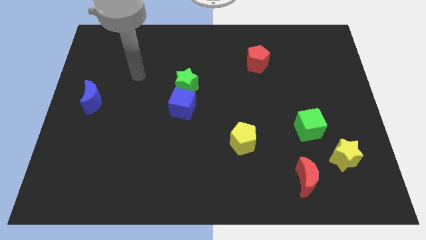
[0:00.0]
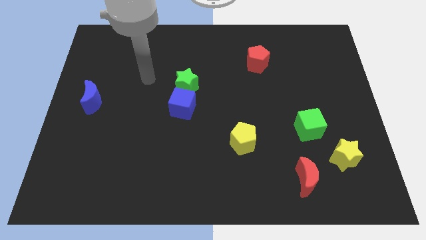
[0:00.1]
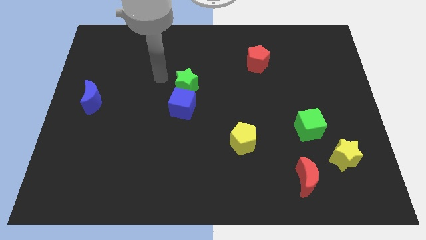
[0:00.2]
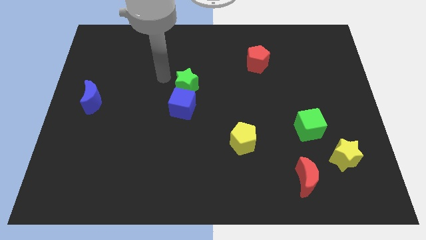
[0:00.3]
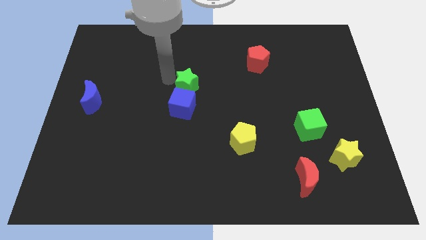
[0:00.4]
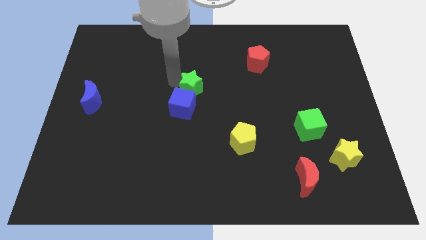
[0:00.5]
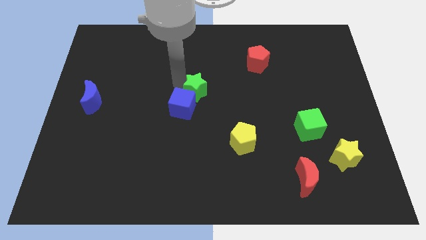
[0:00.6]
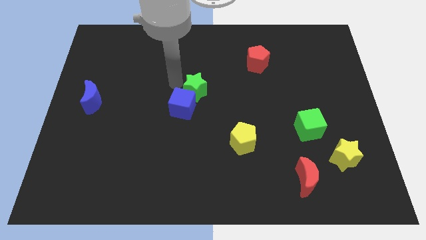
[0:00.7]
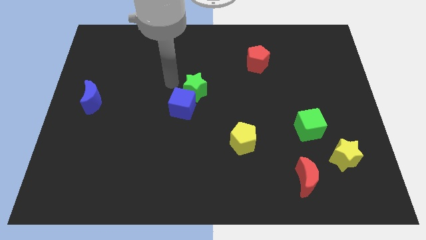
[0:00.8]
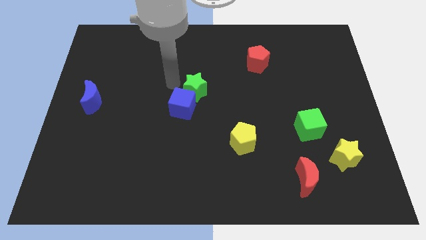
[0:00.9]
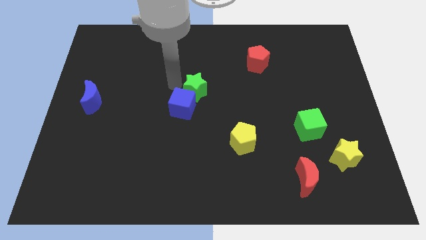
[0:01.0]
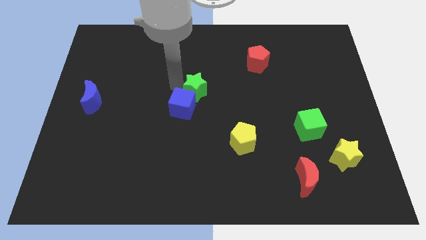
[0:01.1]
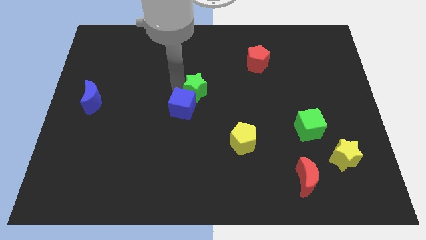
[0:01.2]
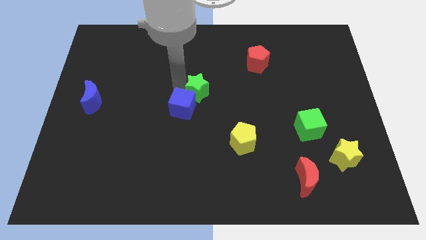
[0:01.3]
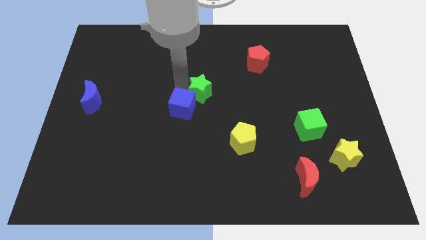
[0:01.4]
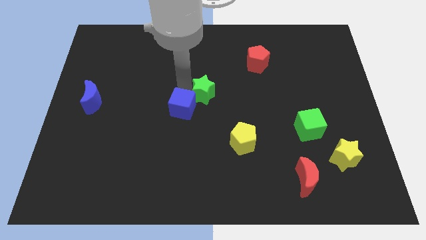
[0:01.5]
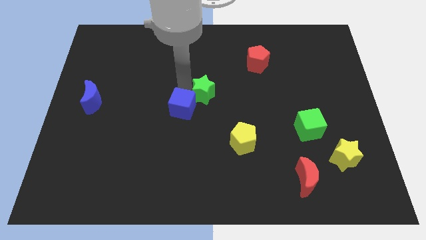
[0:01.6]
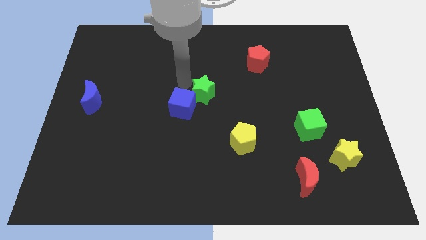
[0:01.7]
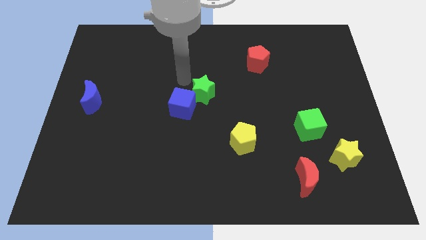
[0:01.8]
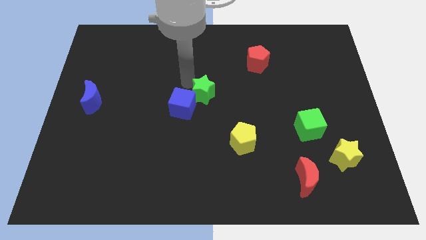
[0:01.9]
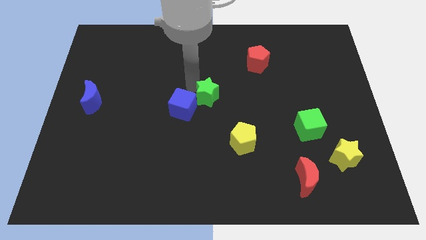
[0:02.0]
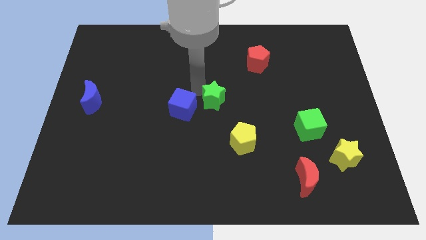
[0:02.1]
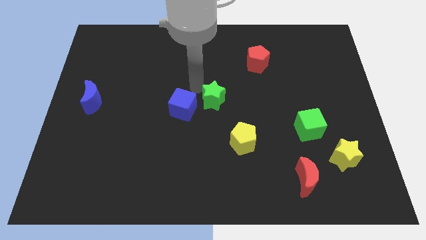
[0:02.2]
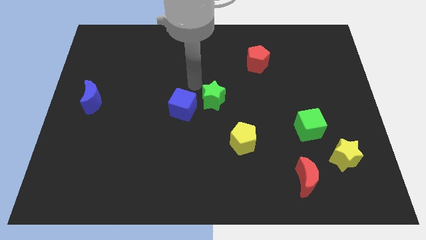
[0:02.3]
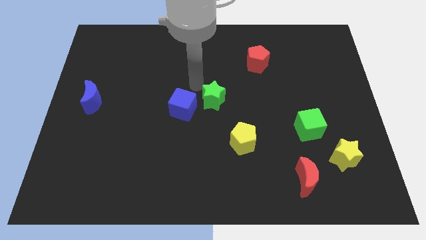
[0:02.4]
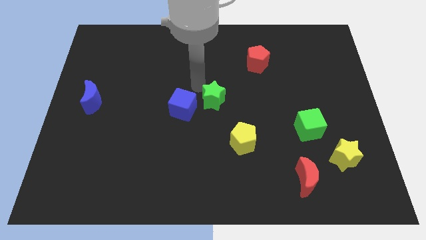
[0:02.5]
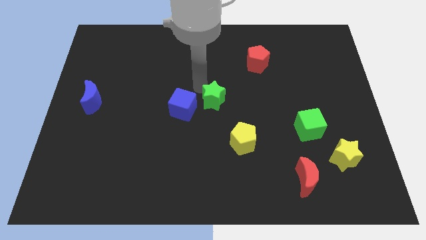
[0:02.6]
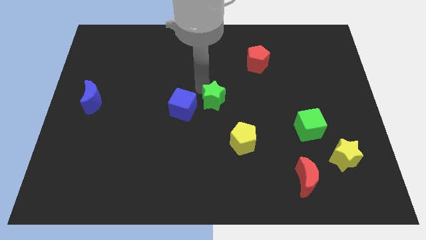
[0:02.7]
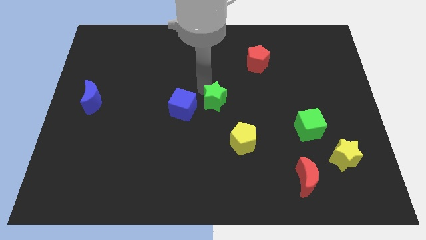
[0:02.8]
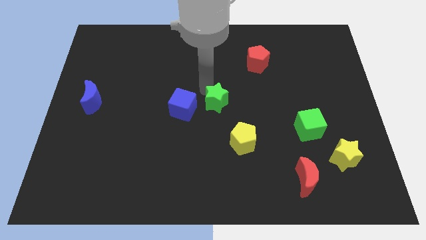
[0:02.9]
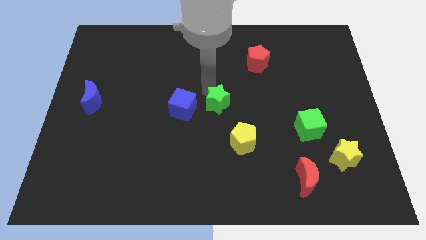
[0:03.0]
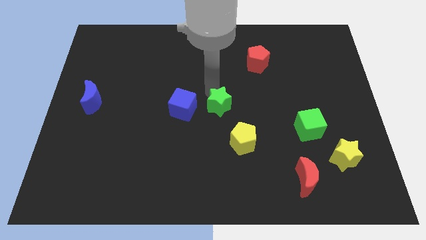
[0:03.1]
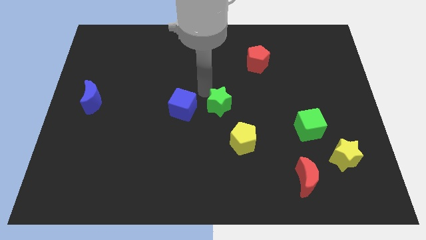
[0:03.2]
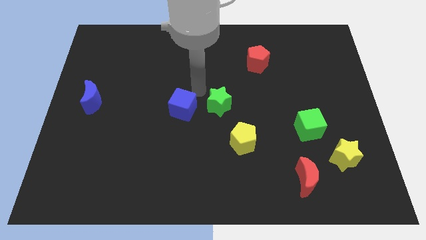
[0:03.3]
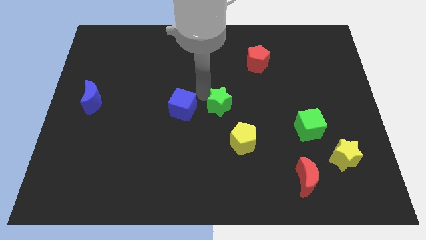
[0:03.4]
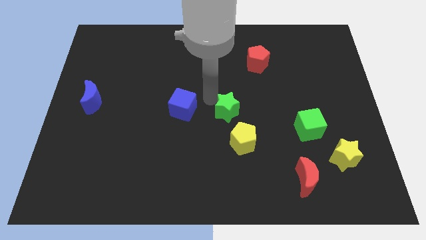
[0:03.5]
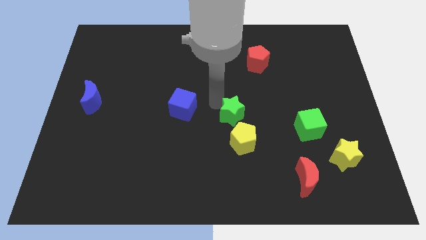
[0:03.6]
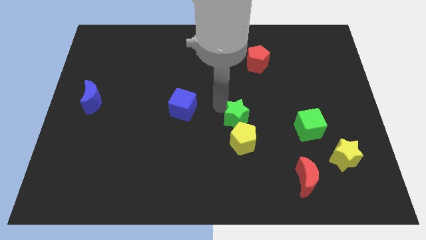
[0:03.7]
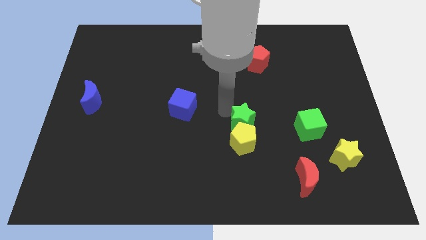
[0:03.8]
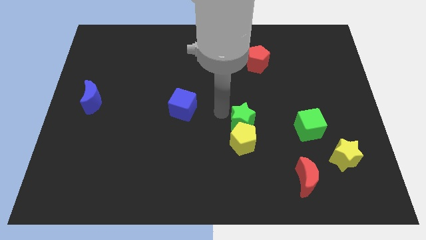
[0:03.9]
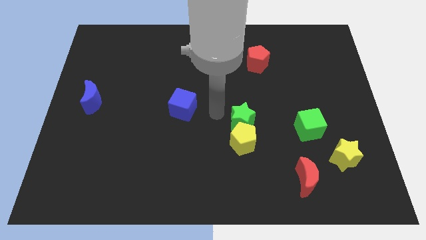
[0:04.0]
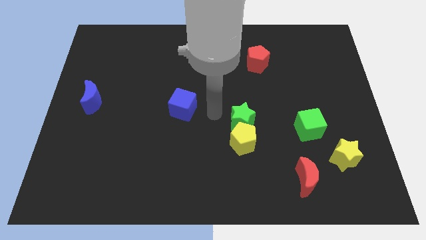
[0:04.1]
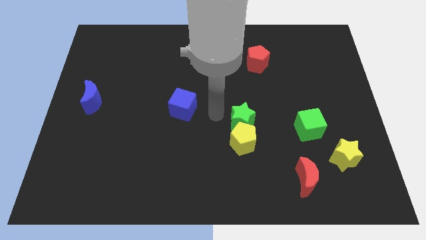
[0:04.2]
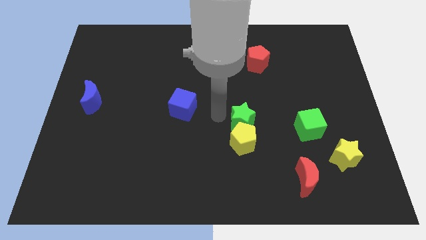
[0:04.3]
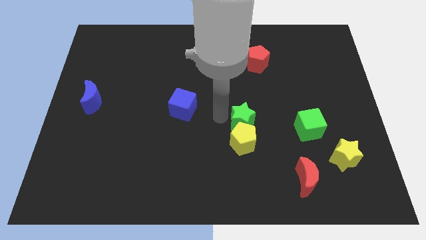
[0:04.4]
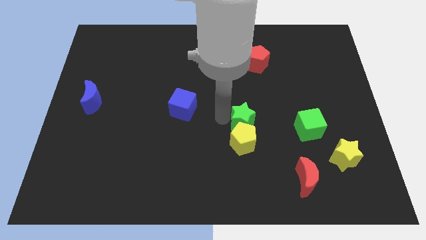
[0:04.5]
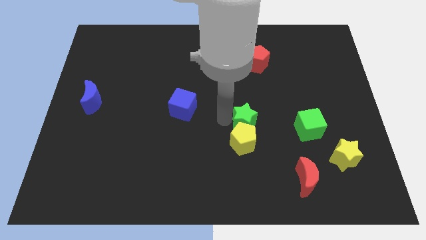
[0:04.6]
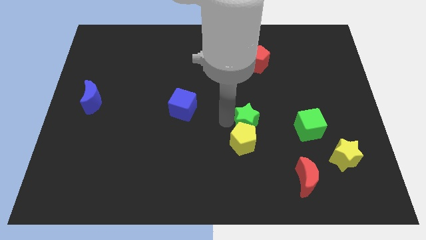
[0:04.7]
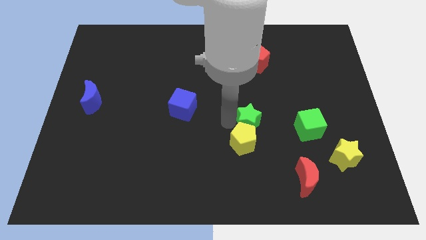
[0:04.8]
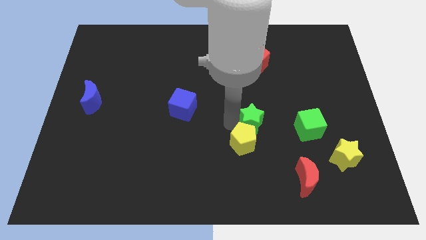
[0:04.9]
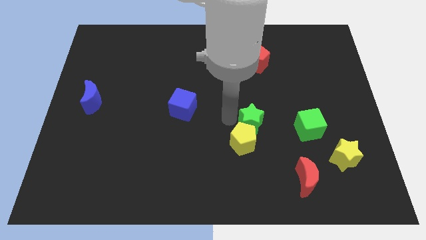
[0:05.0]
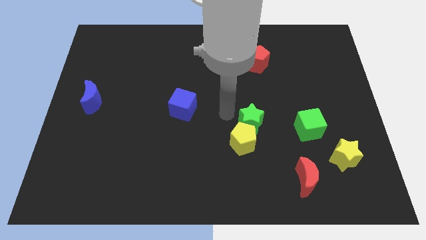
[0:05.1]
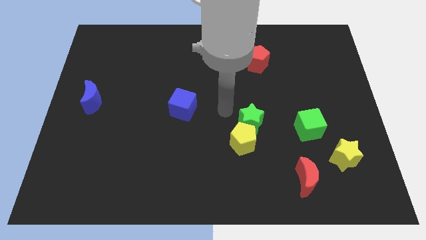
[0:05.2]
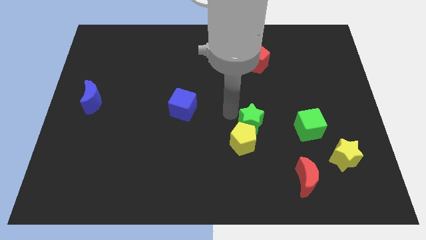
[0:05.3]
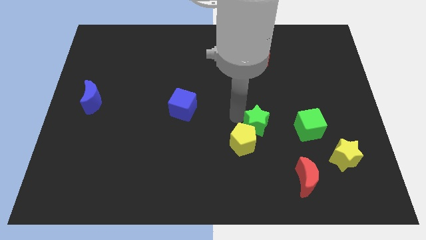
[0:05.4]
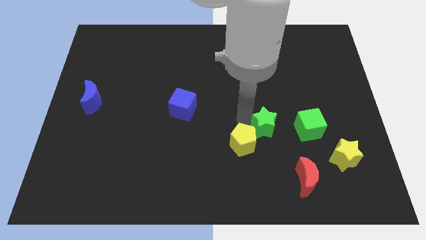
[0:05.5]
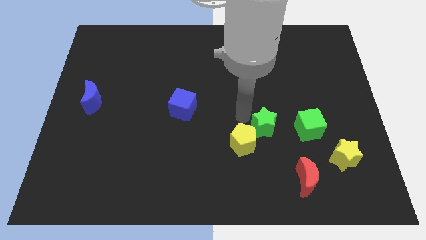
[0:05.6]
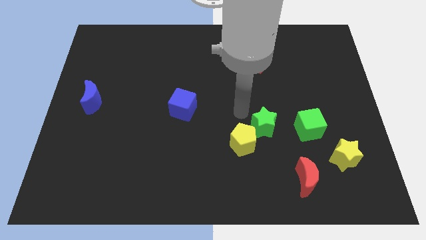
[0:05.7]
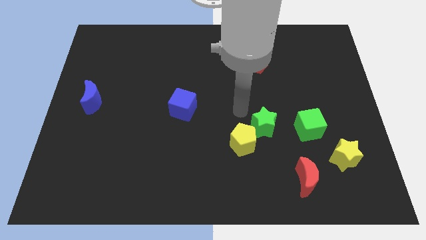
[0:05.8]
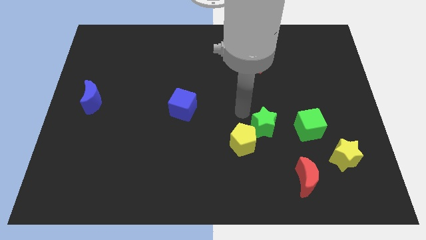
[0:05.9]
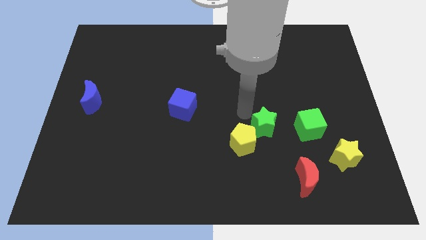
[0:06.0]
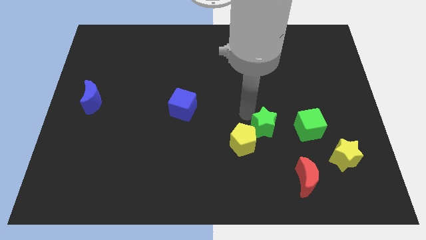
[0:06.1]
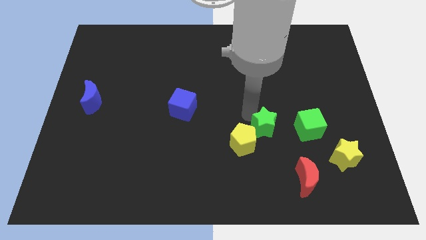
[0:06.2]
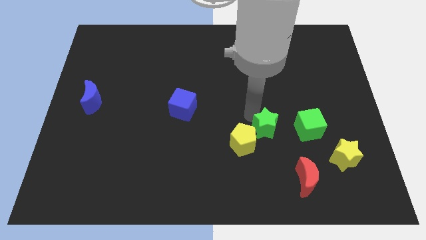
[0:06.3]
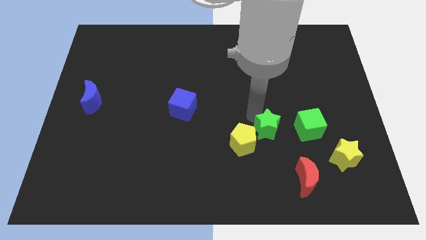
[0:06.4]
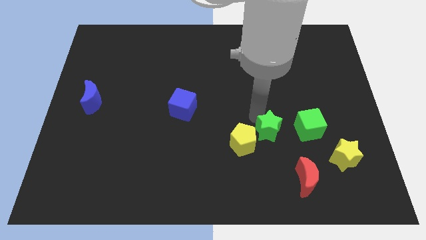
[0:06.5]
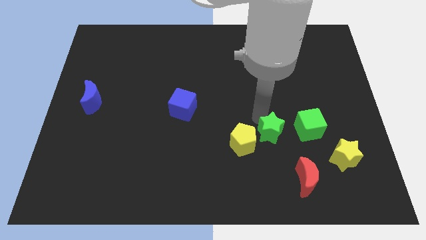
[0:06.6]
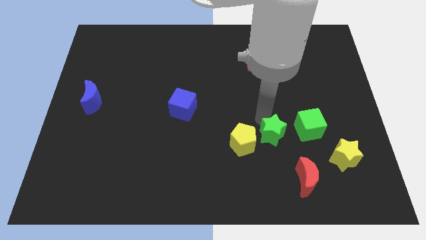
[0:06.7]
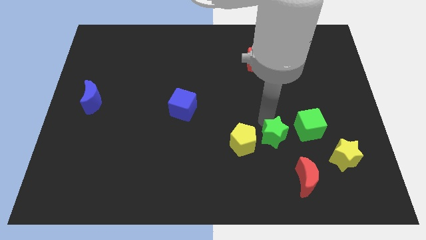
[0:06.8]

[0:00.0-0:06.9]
move the green star to the bottom left of the green cube

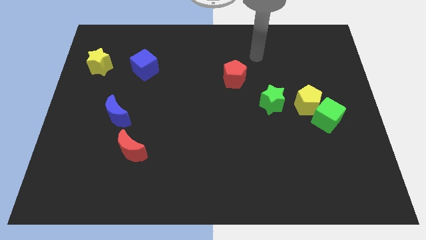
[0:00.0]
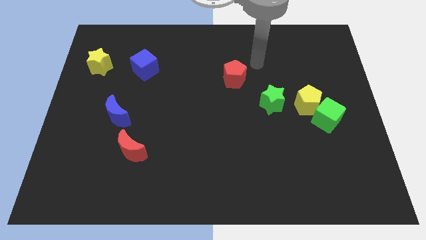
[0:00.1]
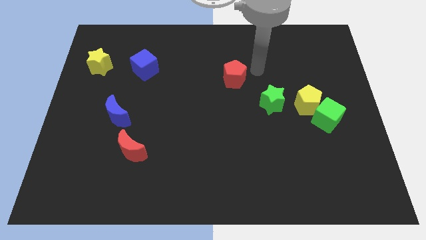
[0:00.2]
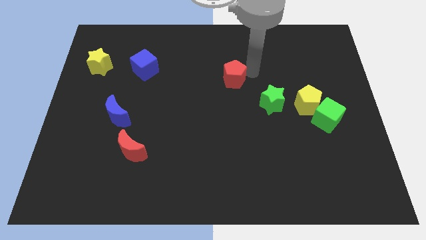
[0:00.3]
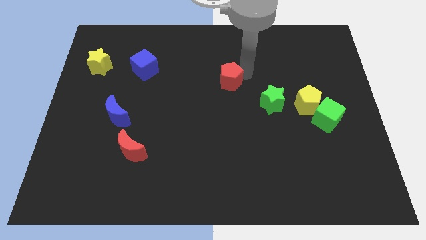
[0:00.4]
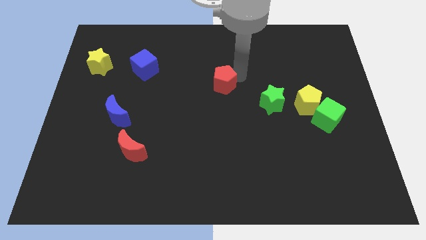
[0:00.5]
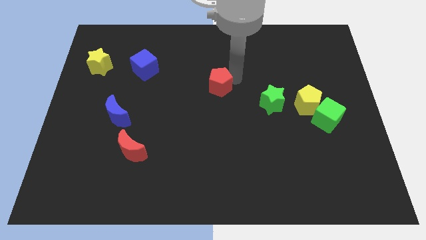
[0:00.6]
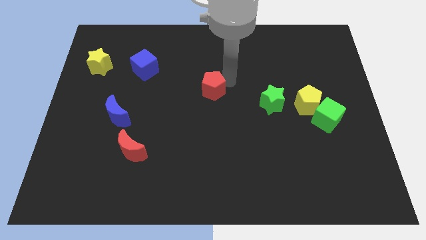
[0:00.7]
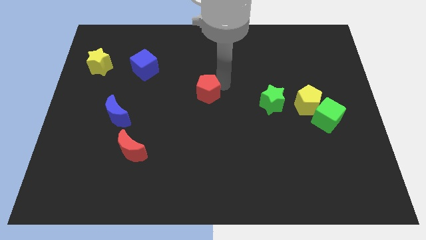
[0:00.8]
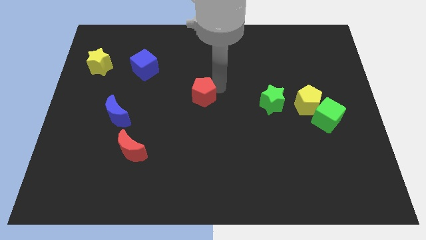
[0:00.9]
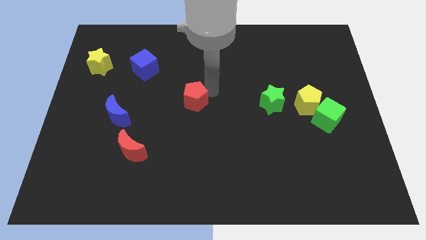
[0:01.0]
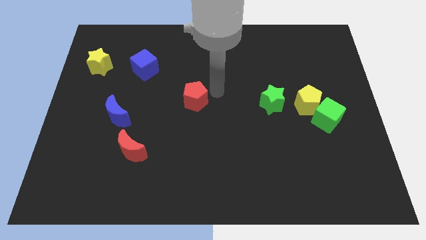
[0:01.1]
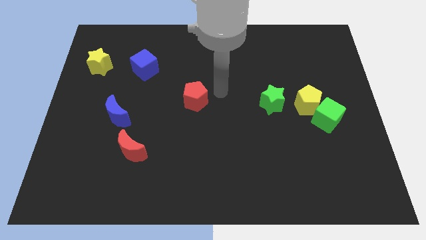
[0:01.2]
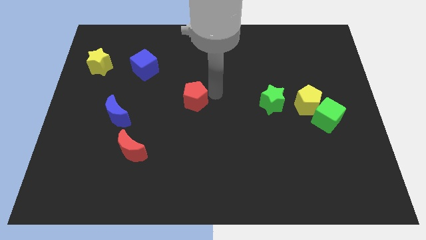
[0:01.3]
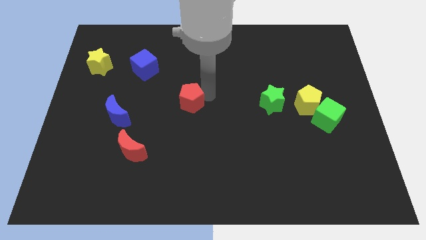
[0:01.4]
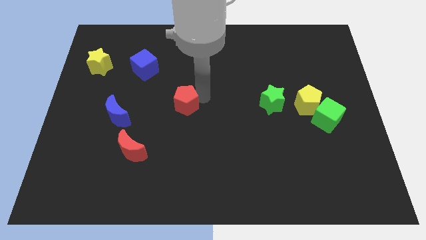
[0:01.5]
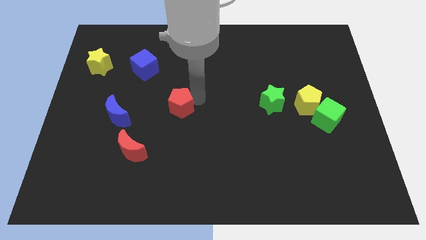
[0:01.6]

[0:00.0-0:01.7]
slide the red pentagon to the right side of the blue moon
